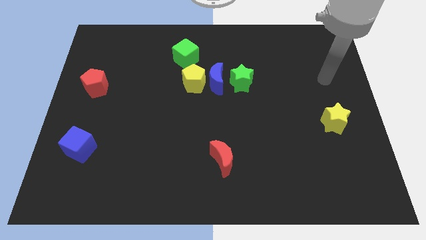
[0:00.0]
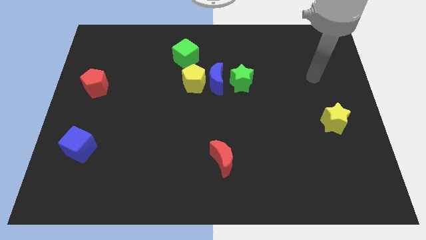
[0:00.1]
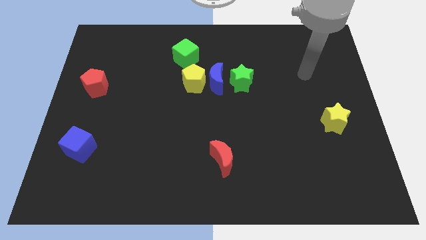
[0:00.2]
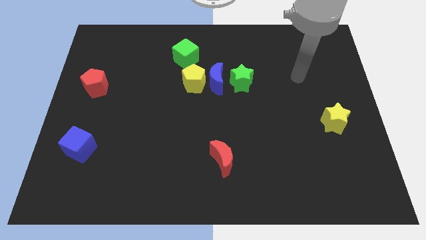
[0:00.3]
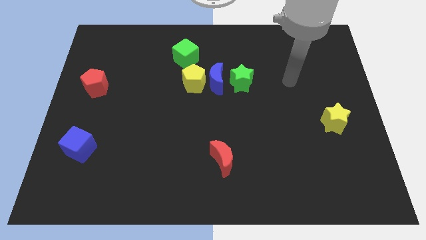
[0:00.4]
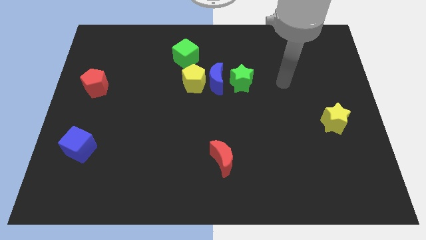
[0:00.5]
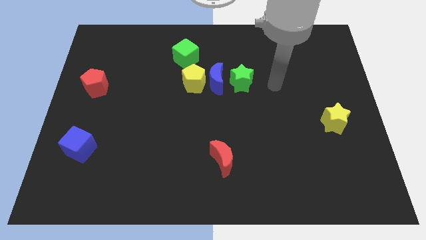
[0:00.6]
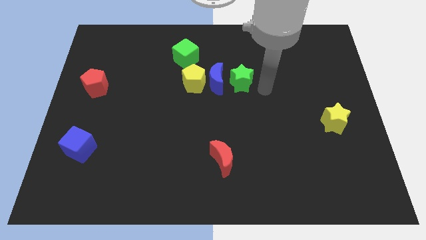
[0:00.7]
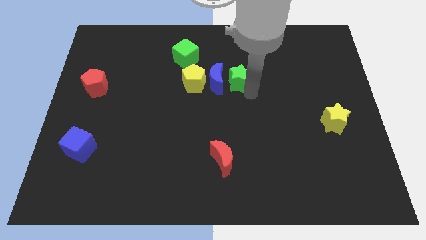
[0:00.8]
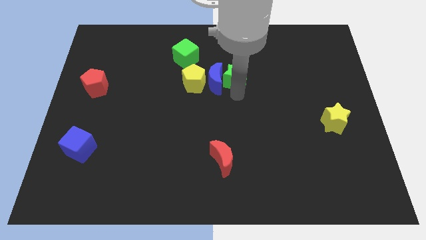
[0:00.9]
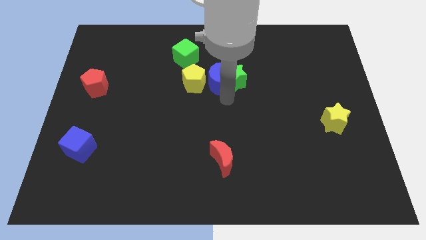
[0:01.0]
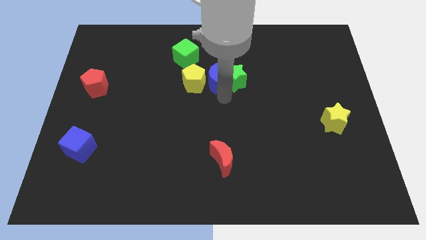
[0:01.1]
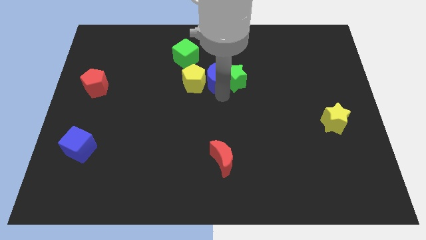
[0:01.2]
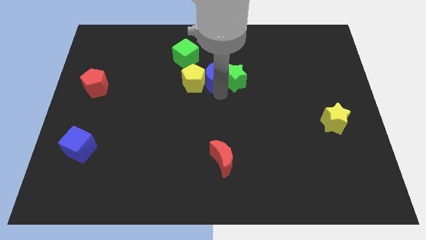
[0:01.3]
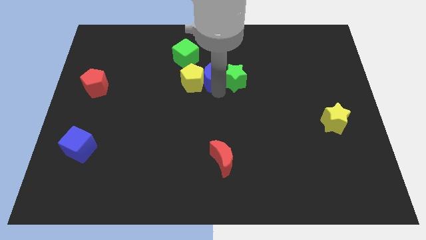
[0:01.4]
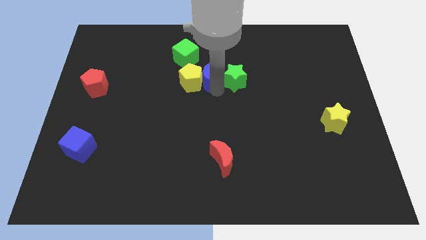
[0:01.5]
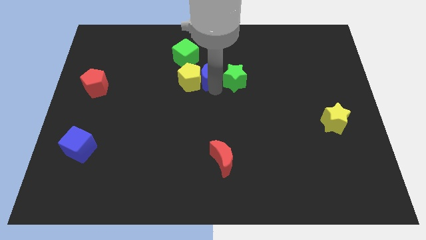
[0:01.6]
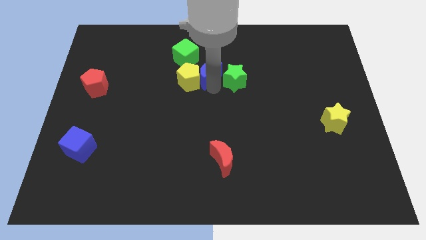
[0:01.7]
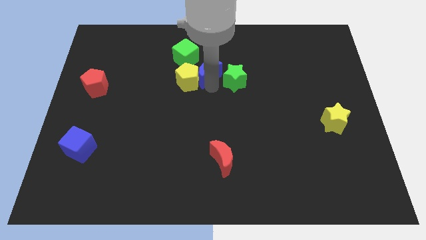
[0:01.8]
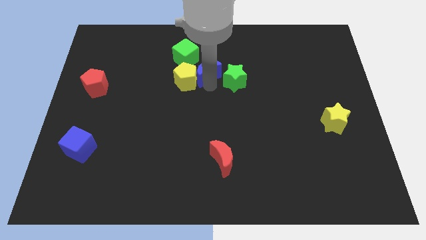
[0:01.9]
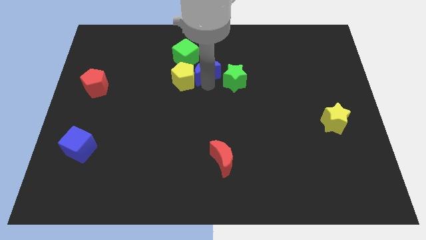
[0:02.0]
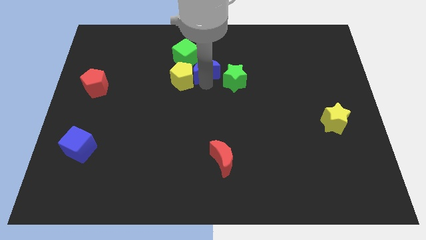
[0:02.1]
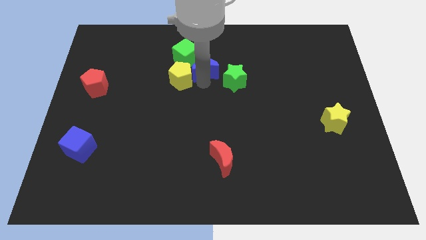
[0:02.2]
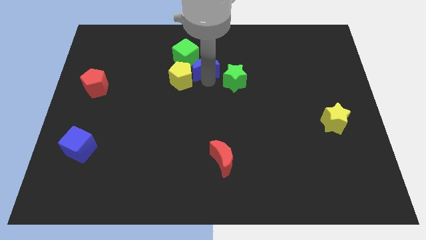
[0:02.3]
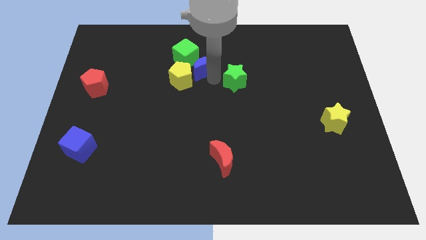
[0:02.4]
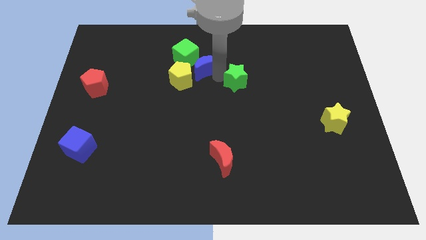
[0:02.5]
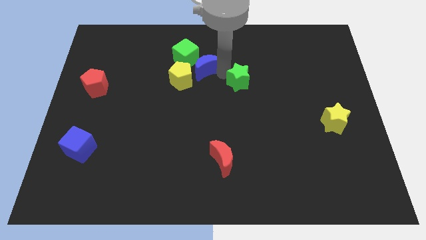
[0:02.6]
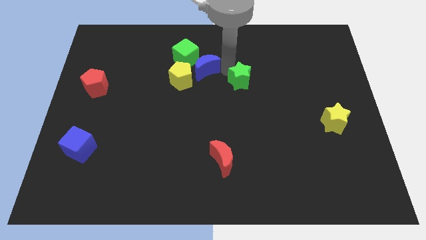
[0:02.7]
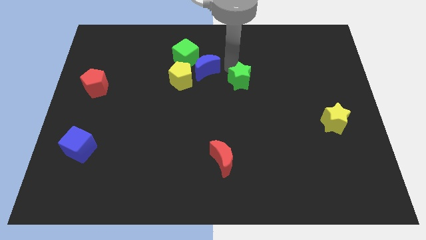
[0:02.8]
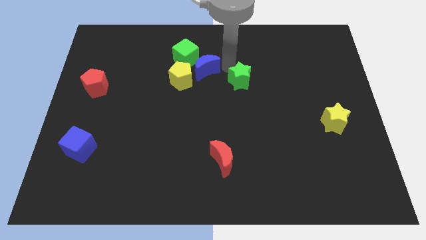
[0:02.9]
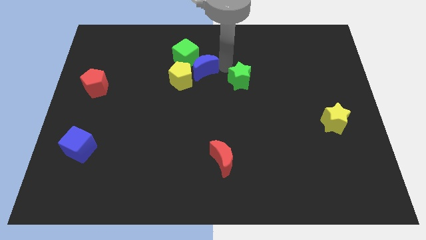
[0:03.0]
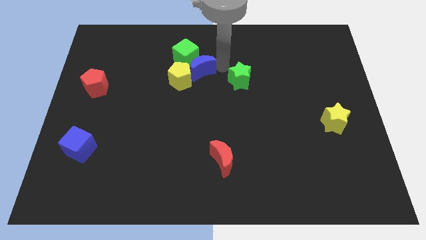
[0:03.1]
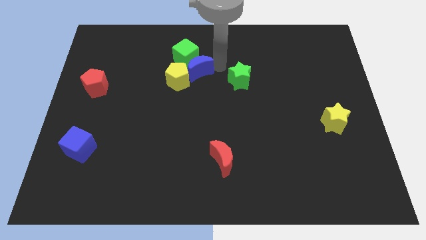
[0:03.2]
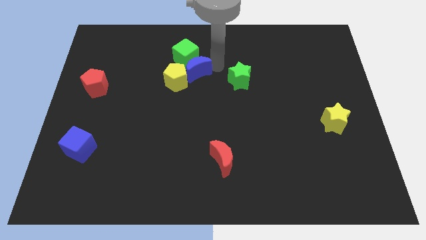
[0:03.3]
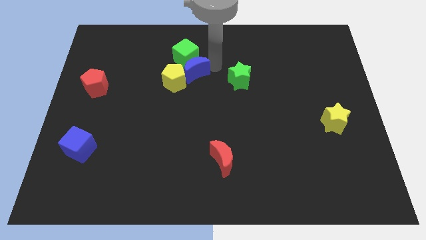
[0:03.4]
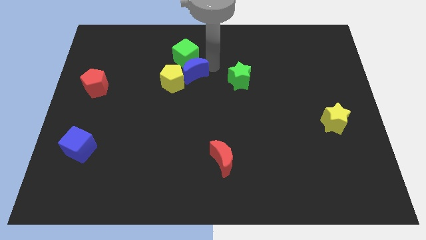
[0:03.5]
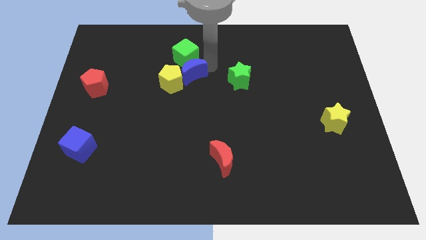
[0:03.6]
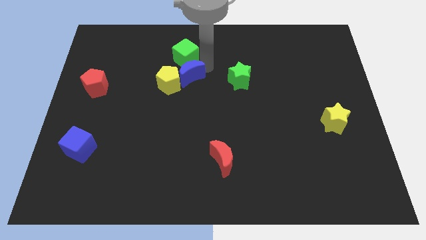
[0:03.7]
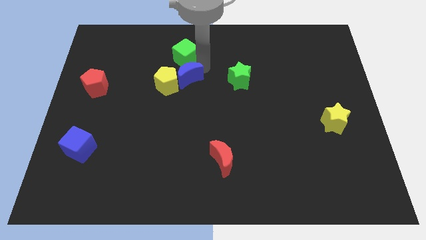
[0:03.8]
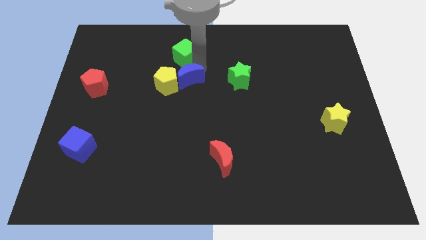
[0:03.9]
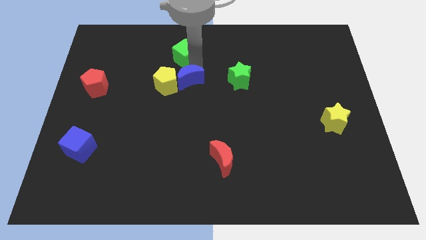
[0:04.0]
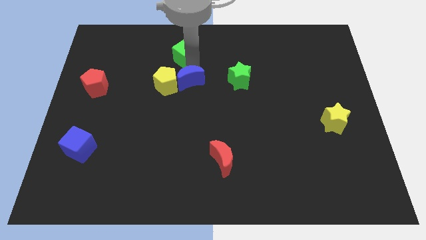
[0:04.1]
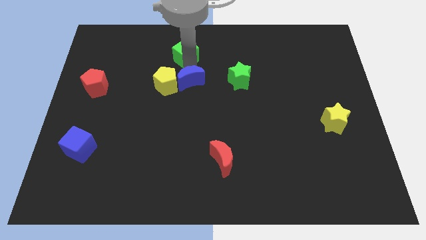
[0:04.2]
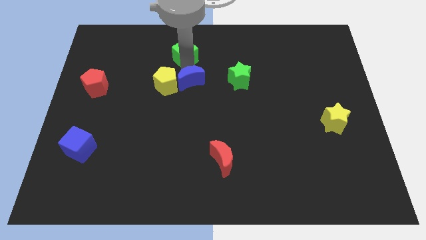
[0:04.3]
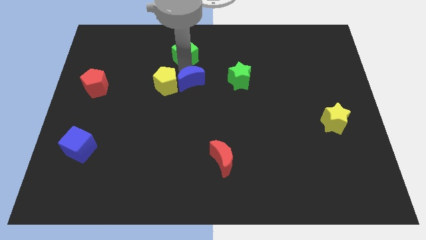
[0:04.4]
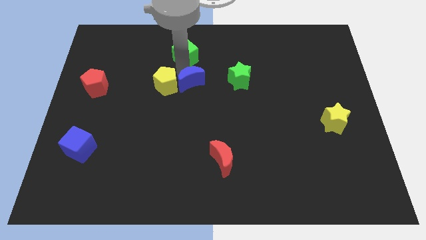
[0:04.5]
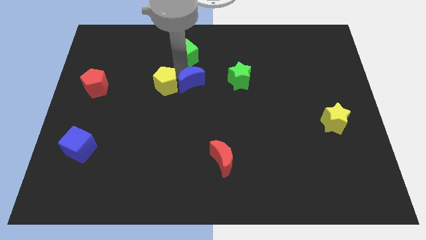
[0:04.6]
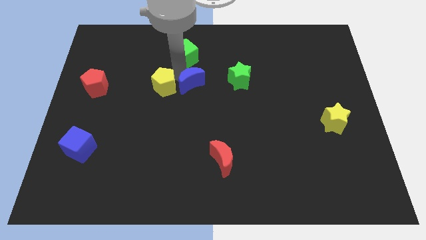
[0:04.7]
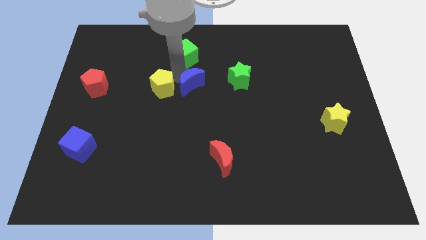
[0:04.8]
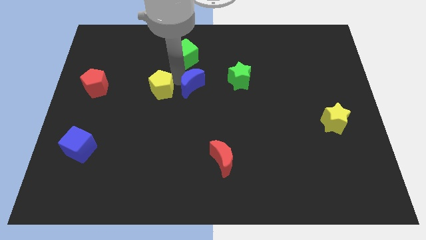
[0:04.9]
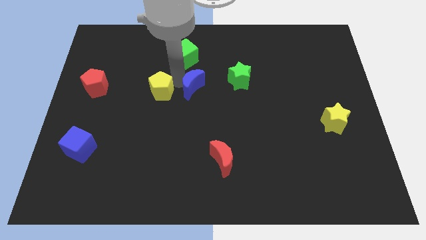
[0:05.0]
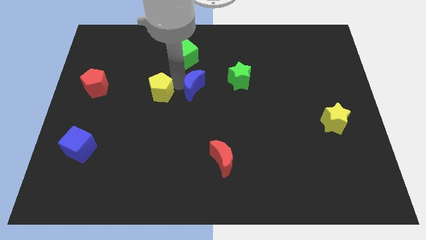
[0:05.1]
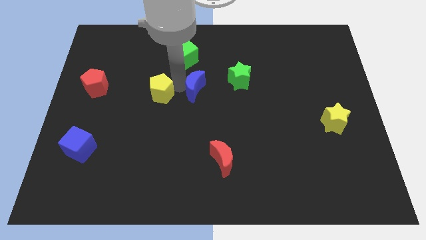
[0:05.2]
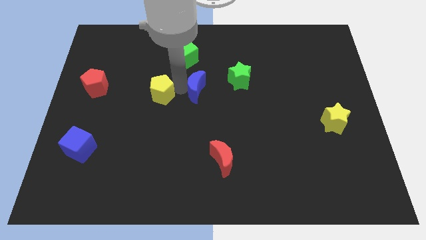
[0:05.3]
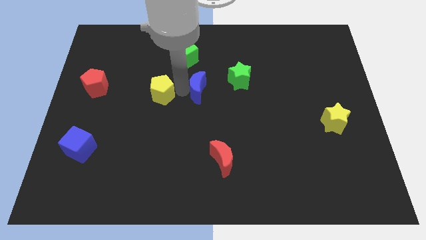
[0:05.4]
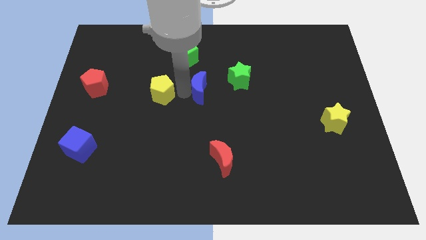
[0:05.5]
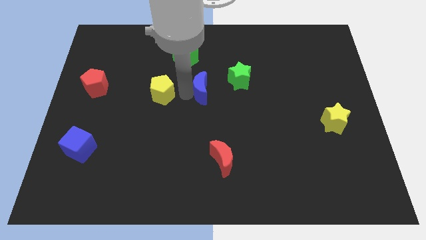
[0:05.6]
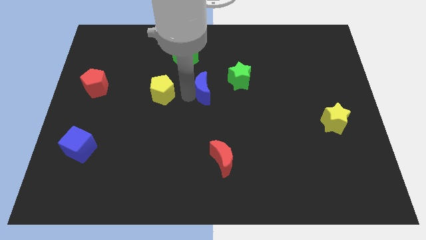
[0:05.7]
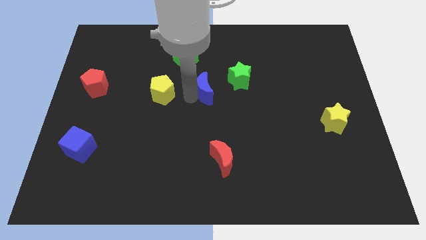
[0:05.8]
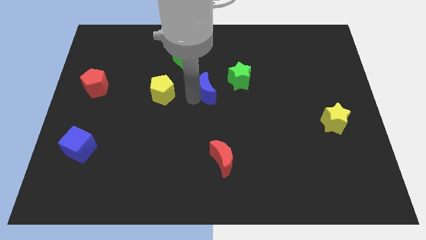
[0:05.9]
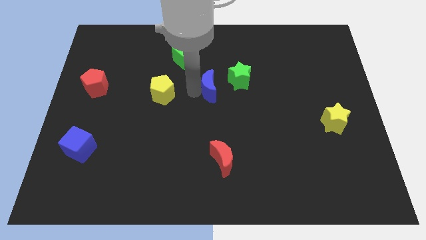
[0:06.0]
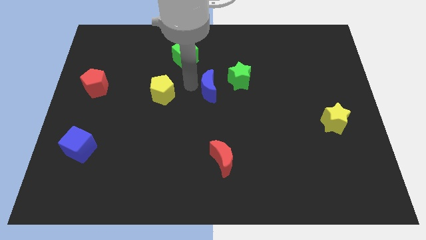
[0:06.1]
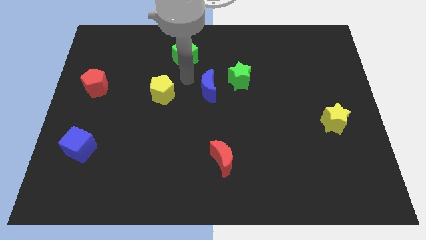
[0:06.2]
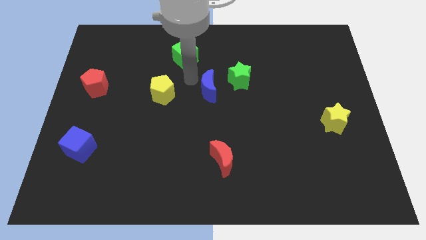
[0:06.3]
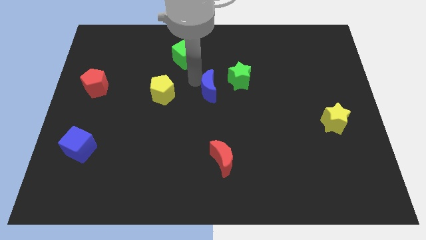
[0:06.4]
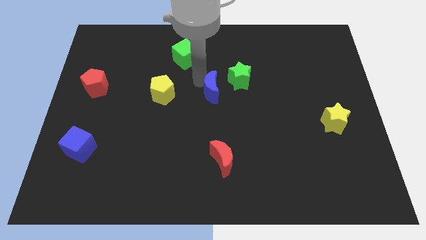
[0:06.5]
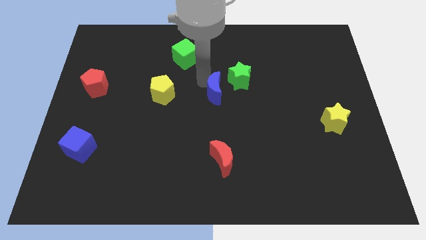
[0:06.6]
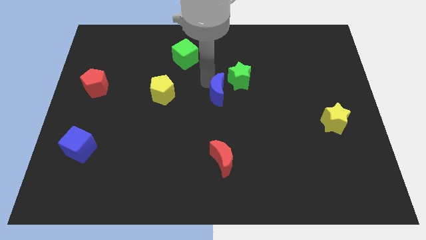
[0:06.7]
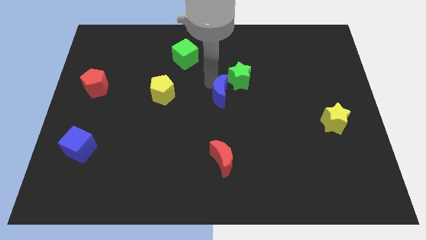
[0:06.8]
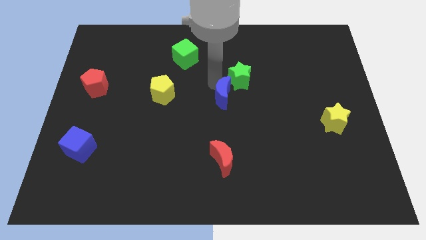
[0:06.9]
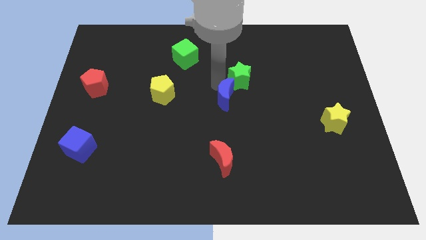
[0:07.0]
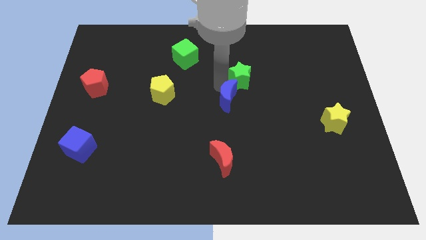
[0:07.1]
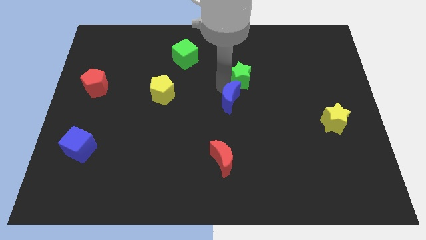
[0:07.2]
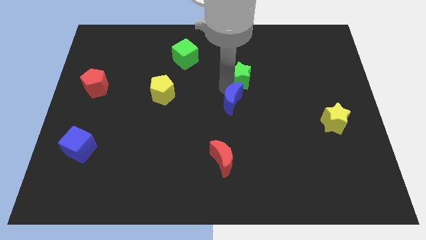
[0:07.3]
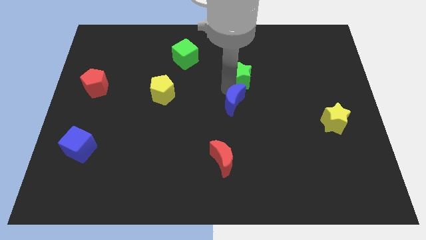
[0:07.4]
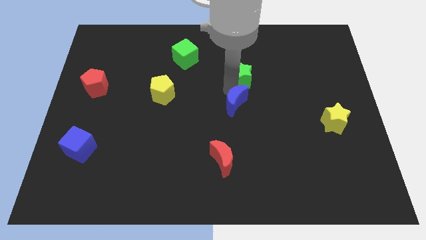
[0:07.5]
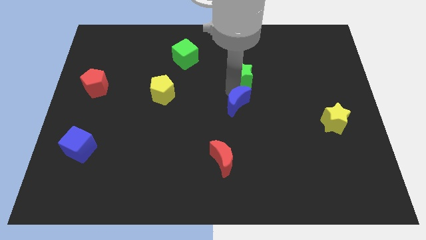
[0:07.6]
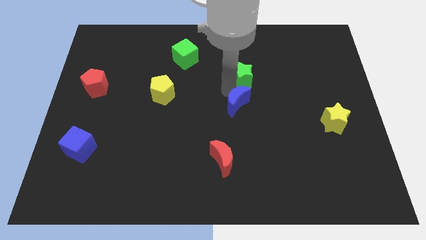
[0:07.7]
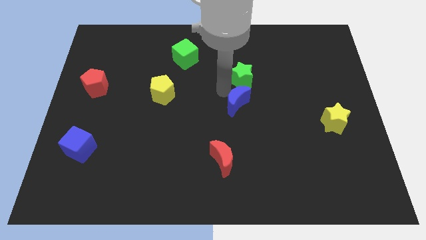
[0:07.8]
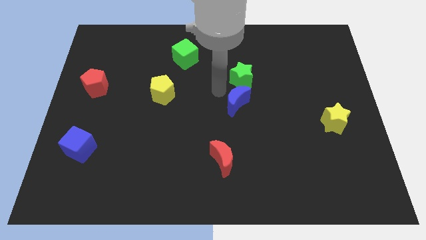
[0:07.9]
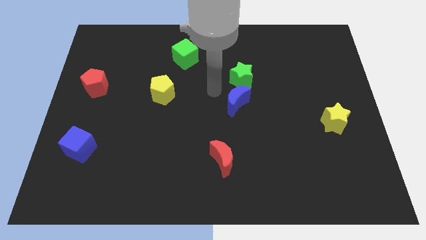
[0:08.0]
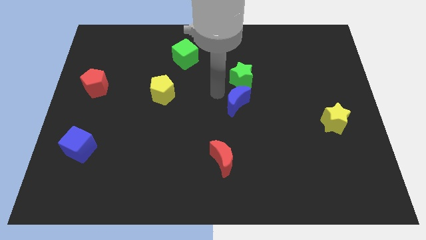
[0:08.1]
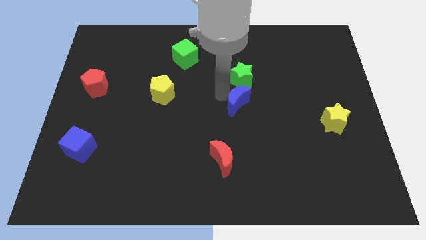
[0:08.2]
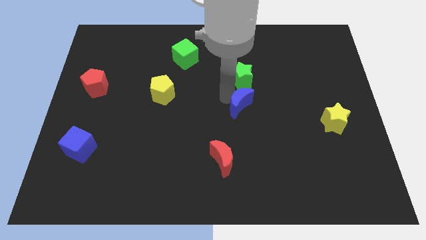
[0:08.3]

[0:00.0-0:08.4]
separate the blue moon from the yellow pentagon and green star

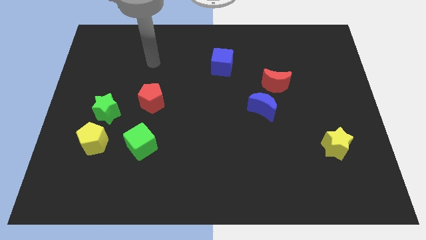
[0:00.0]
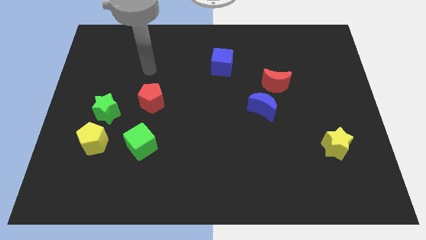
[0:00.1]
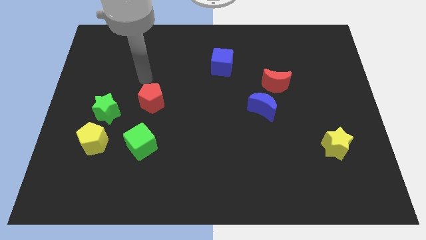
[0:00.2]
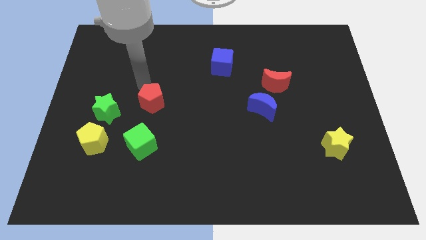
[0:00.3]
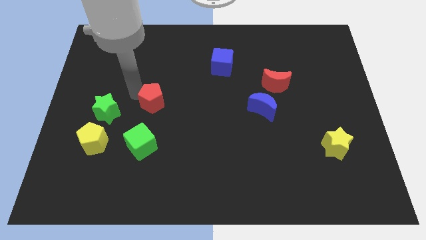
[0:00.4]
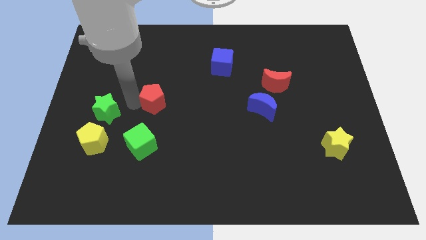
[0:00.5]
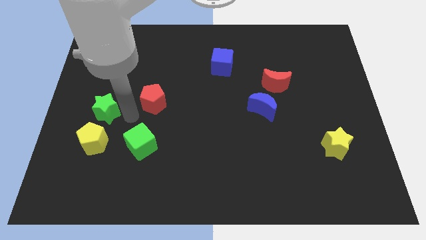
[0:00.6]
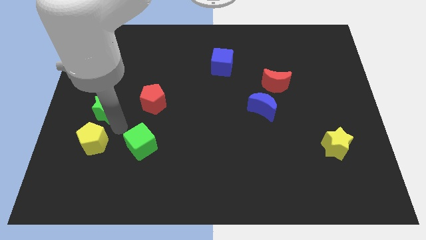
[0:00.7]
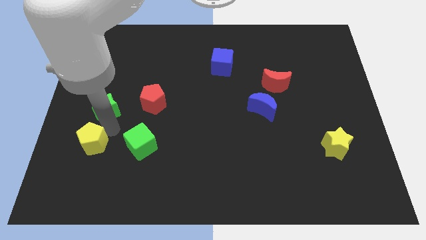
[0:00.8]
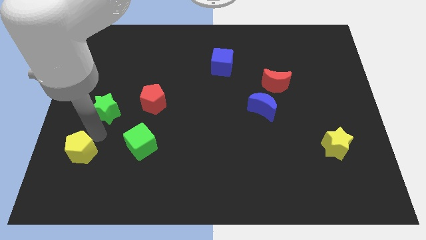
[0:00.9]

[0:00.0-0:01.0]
pull the green star apart from the yellow pentagon
